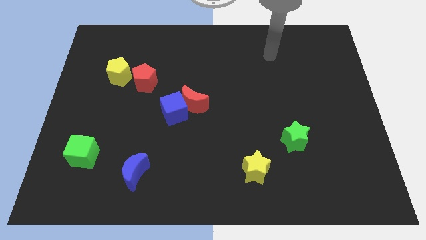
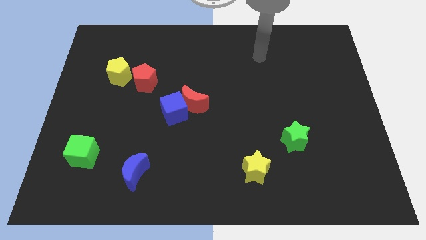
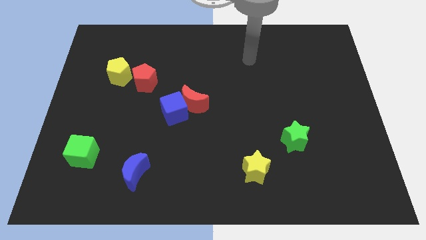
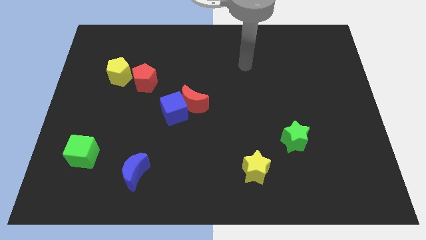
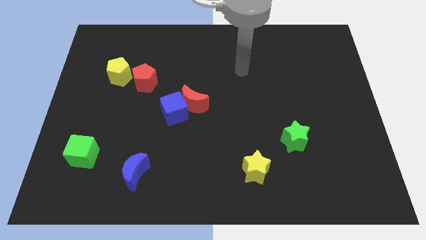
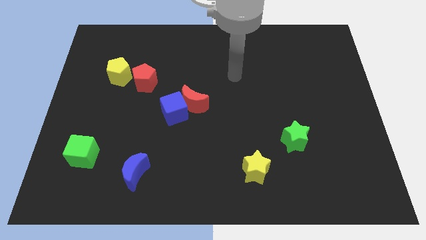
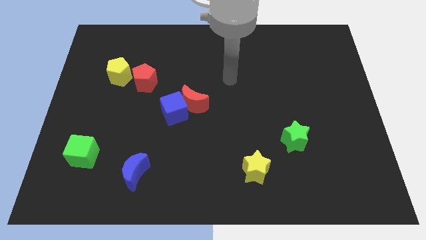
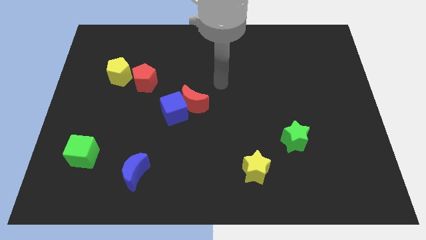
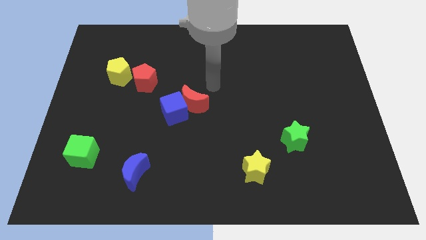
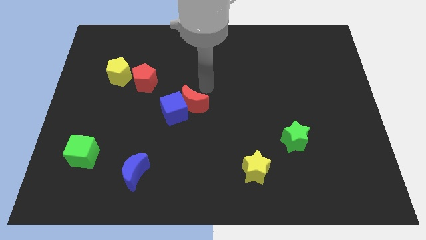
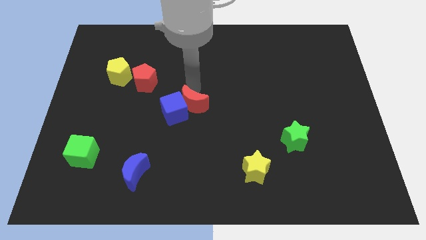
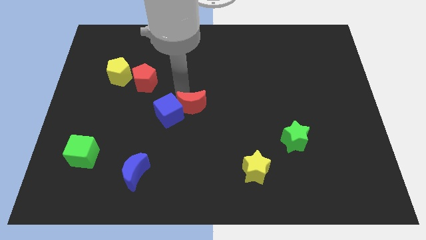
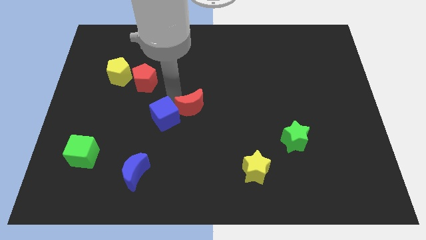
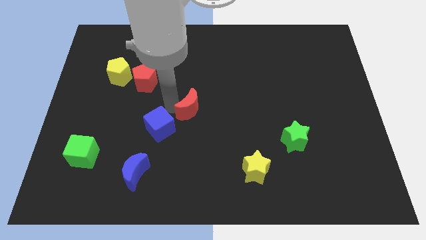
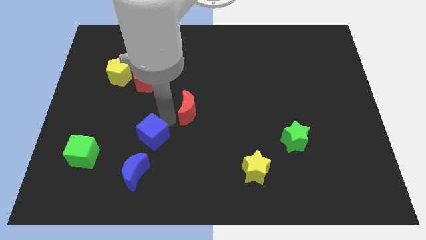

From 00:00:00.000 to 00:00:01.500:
separate the red moon from the blue cube

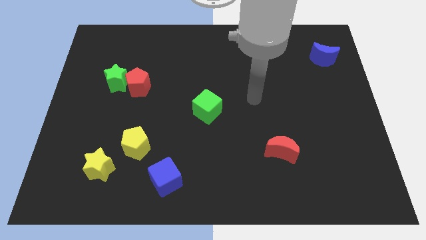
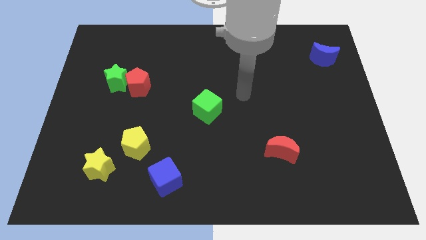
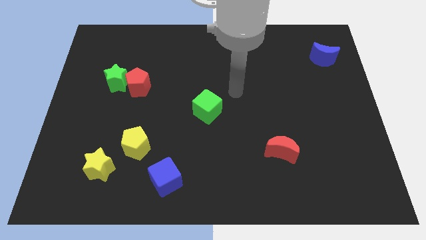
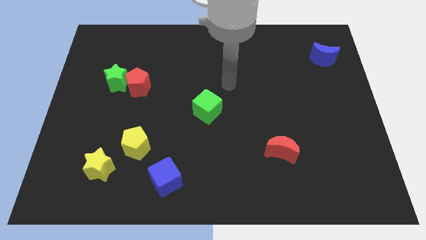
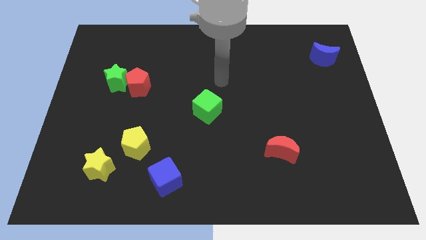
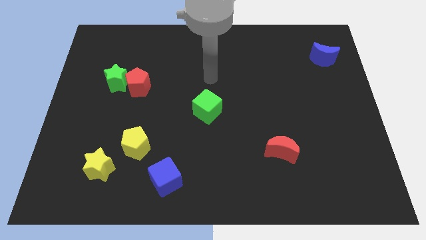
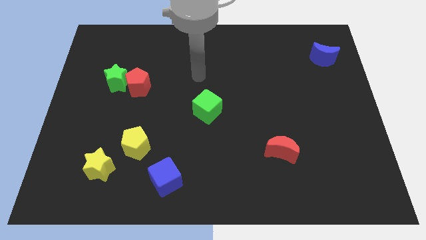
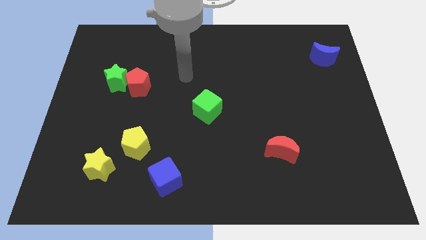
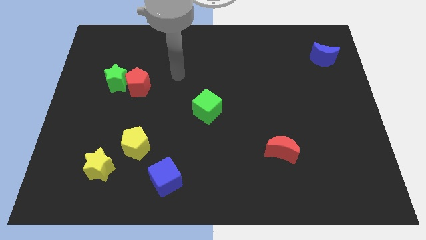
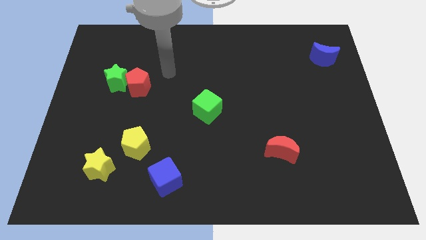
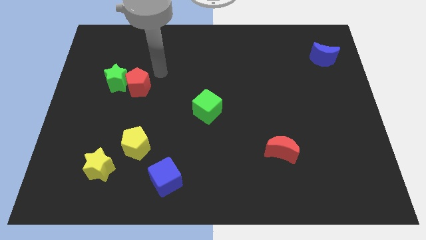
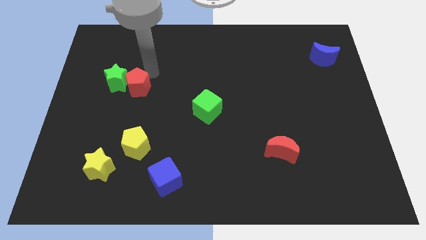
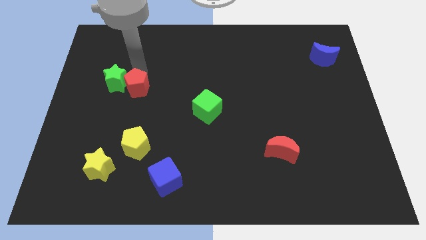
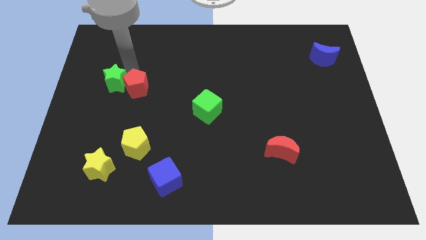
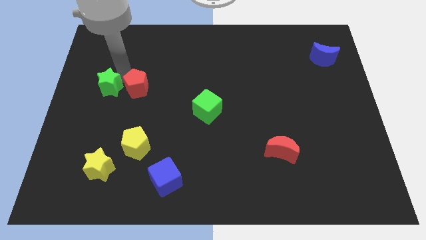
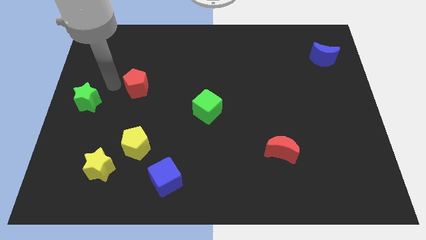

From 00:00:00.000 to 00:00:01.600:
pull the red pentagon apart from the green star

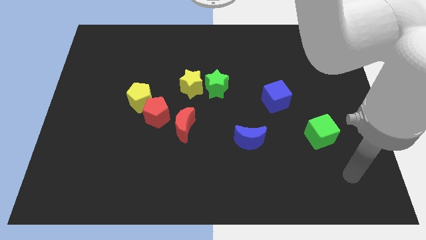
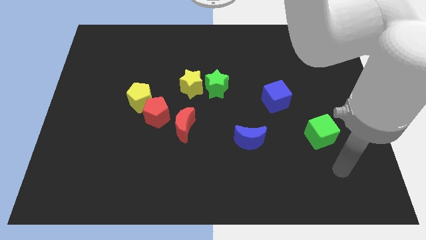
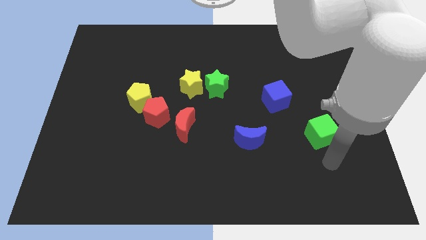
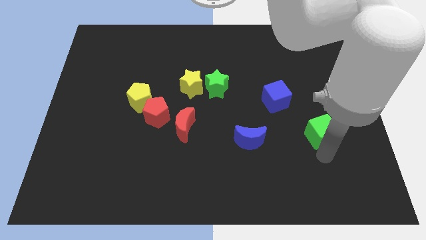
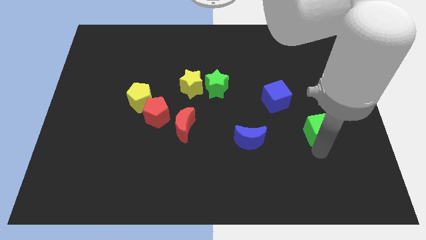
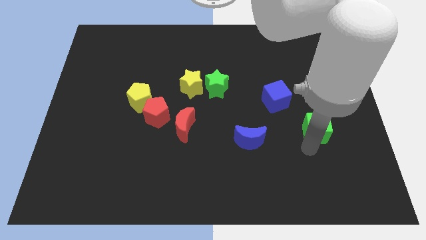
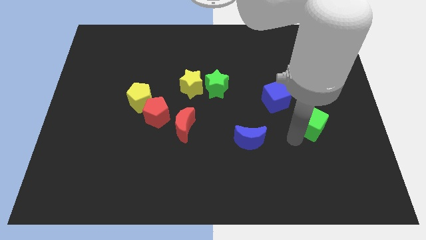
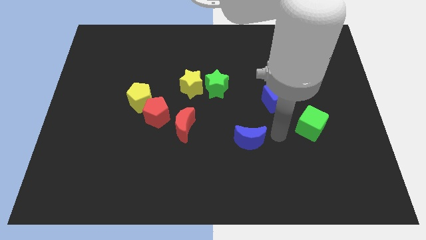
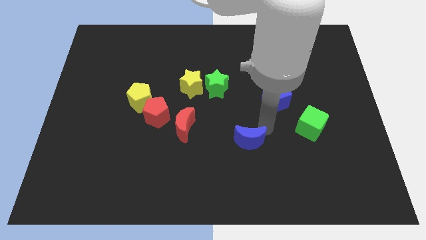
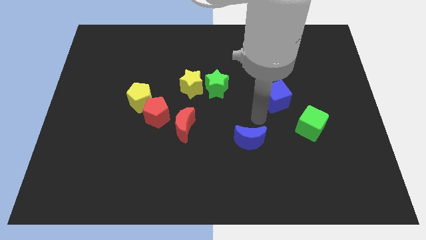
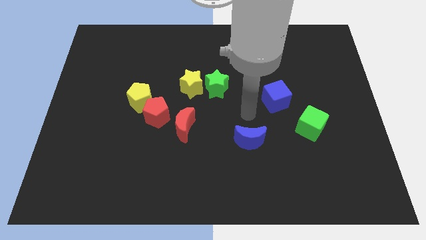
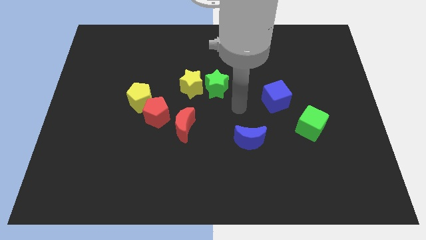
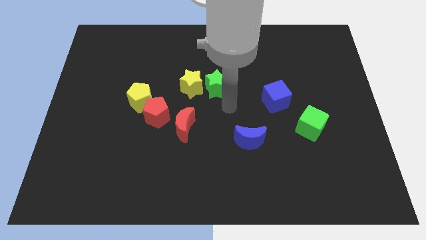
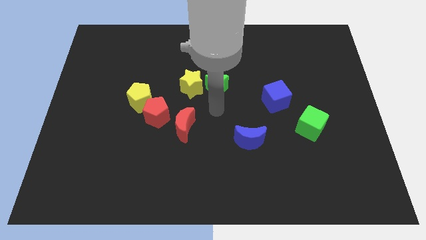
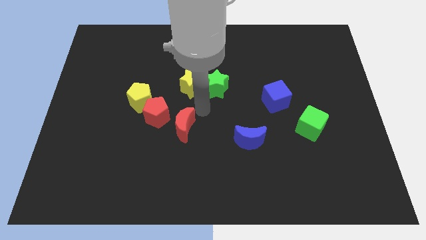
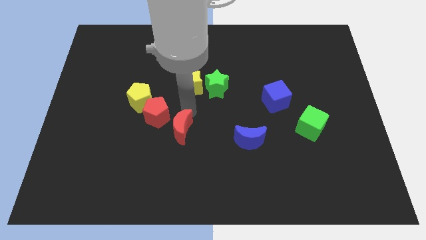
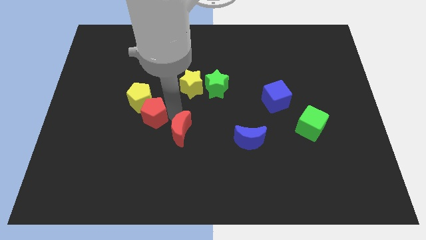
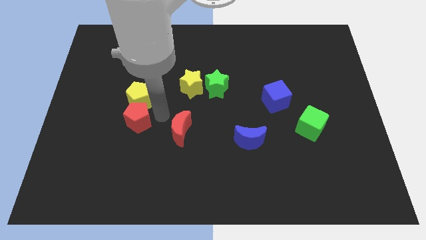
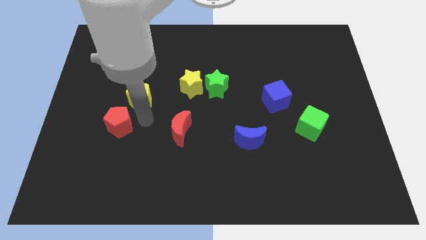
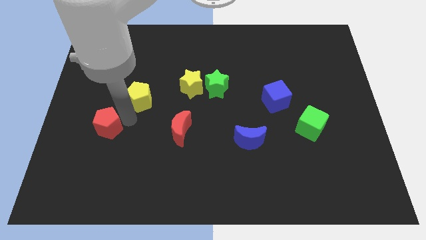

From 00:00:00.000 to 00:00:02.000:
pull the yellow pentagon apart from the red pentagon

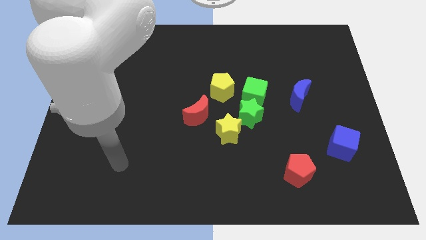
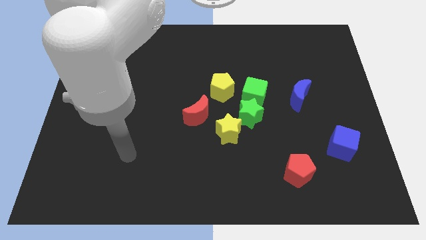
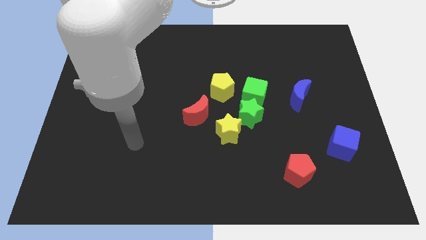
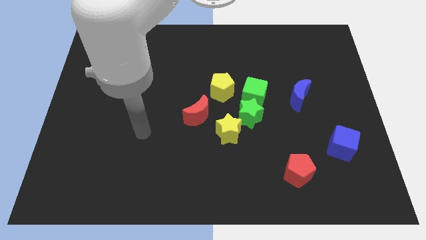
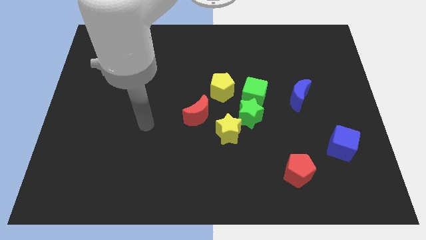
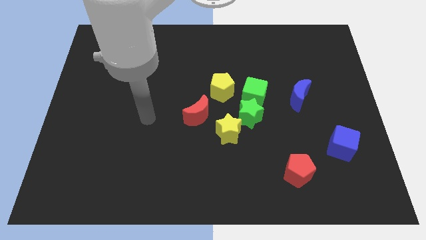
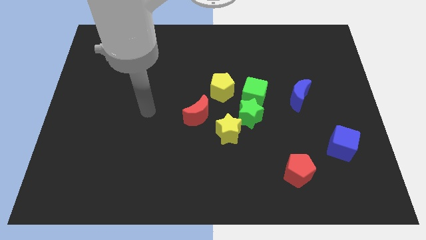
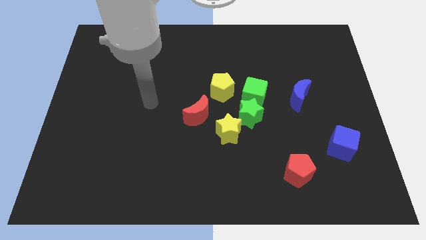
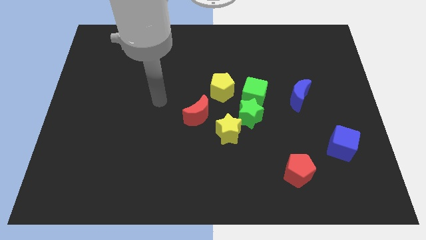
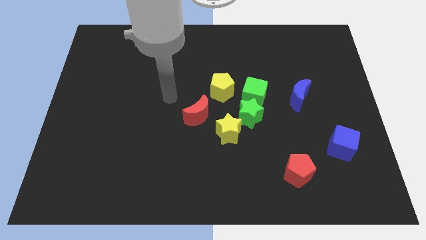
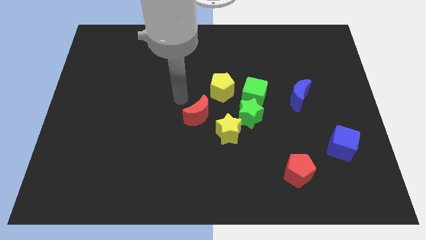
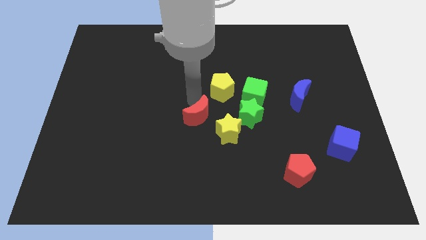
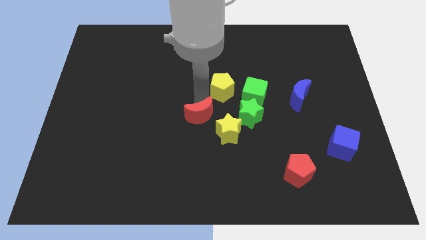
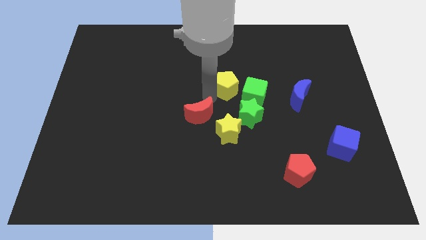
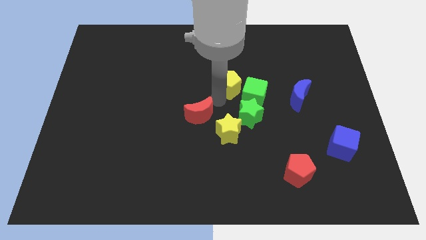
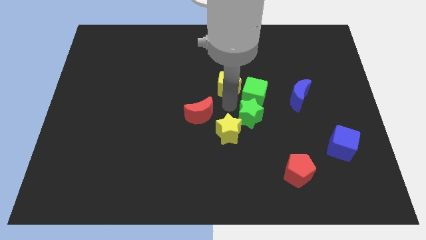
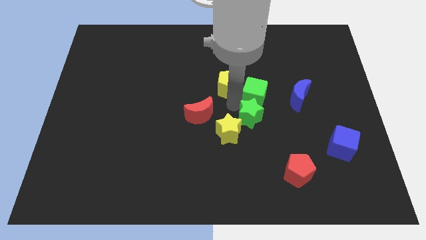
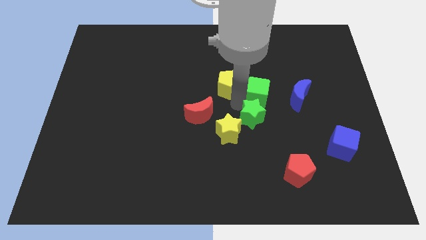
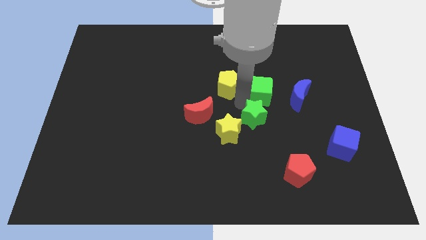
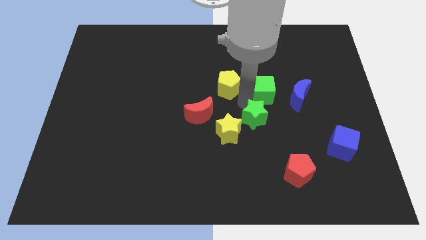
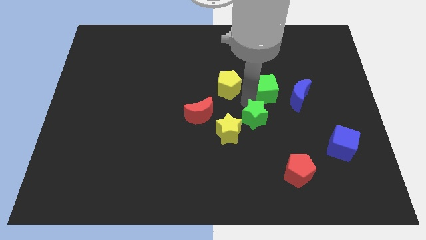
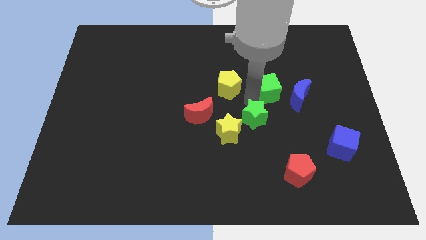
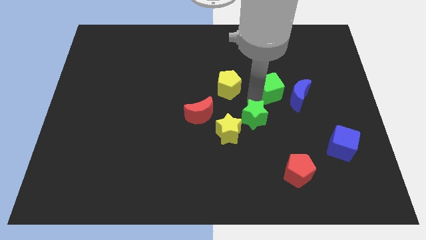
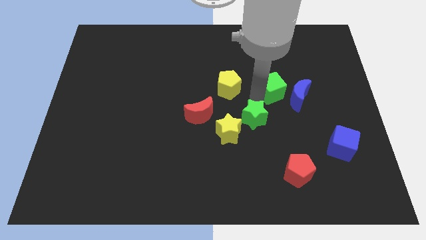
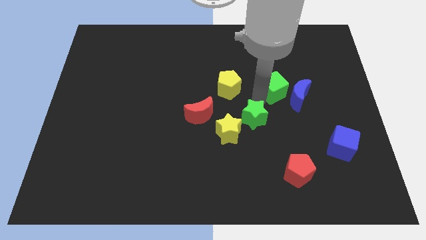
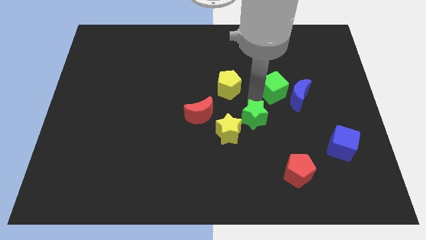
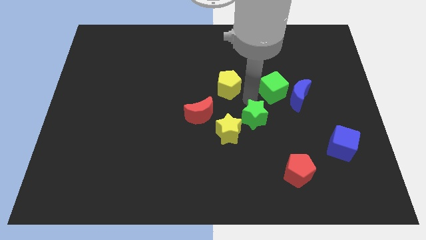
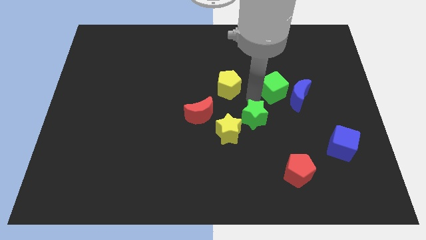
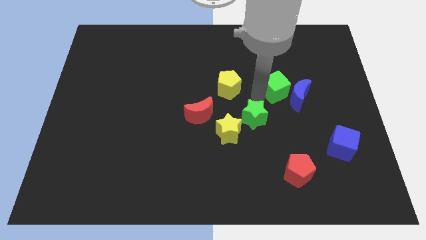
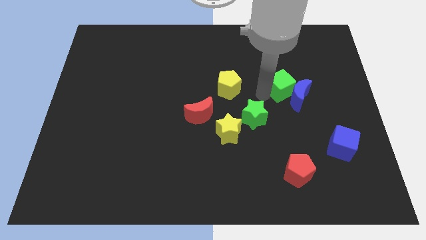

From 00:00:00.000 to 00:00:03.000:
separate the green cube from the green star and yellow pentagon

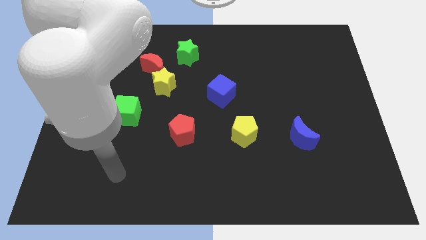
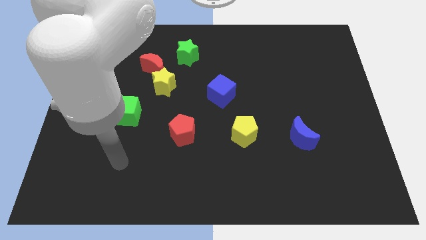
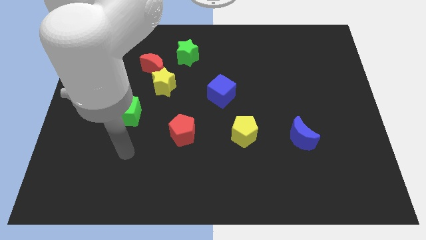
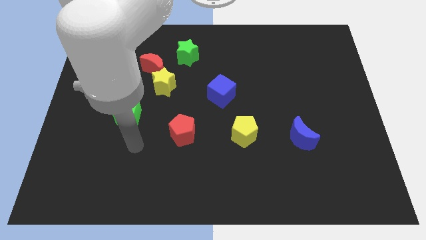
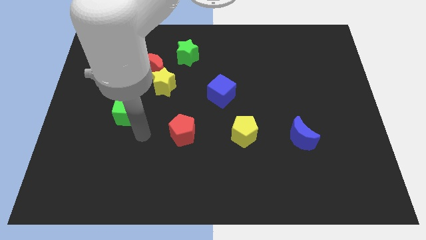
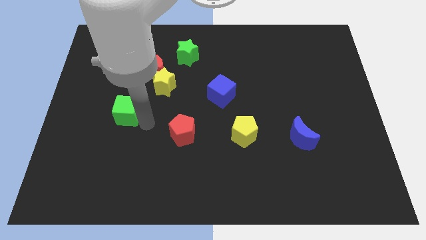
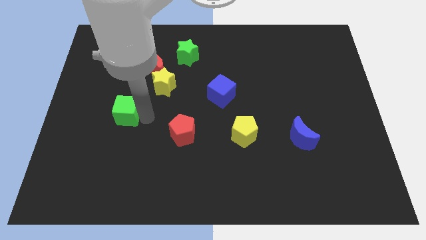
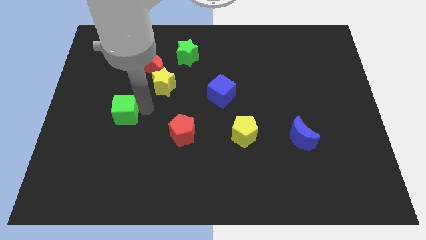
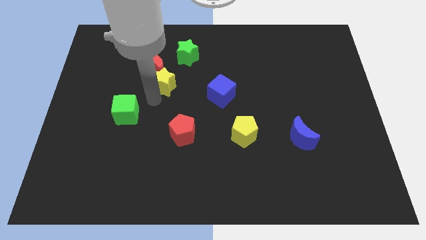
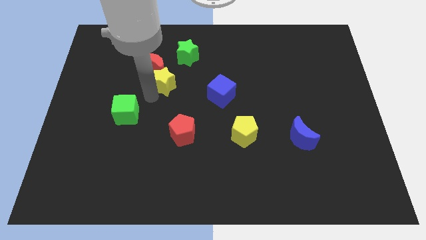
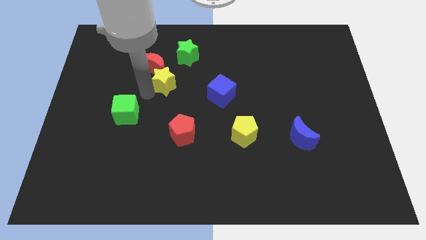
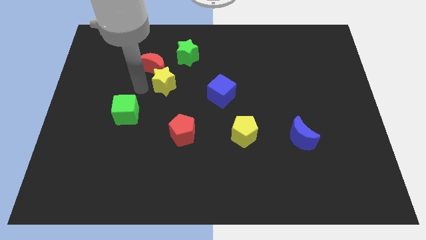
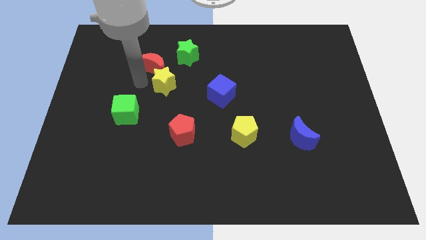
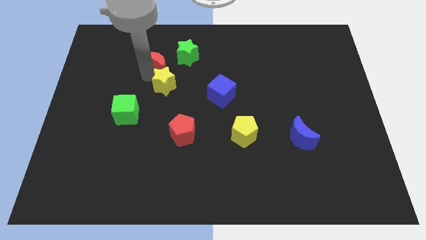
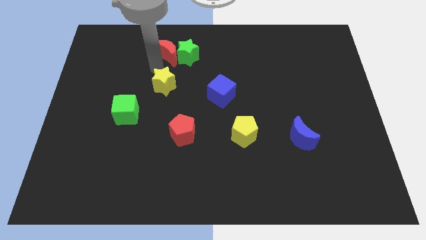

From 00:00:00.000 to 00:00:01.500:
move the yellow star away from the red moon
